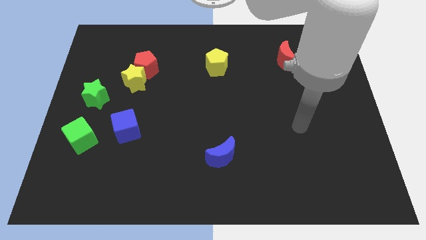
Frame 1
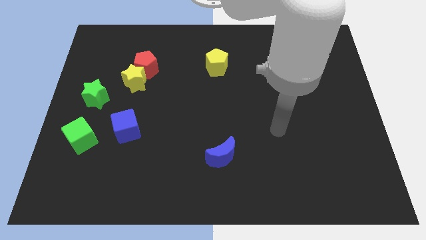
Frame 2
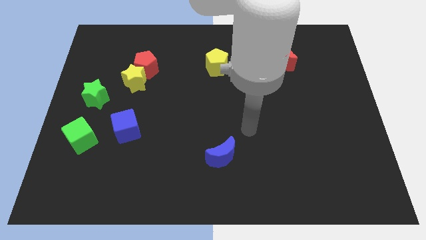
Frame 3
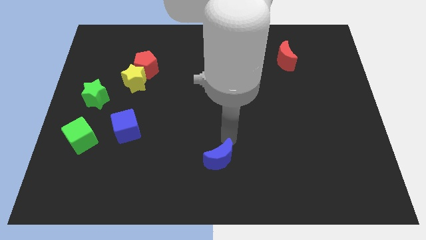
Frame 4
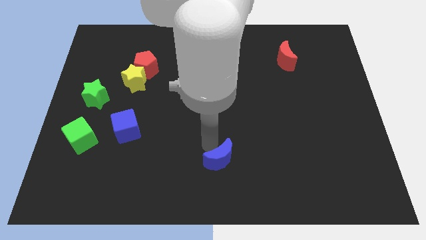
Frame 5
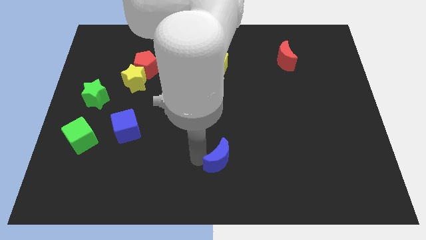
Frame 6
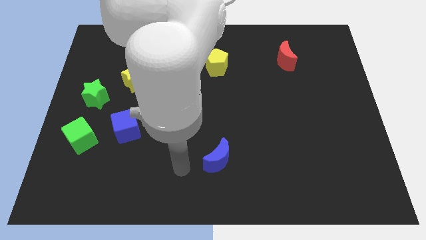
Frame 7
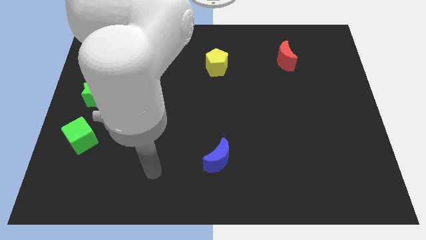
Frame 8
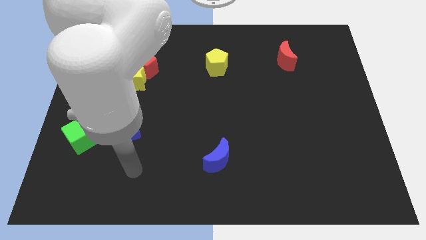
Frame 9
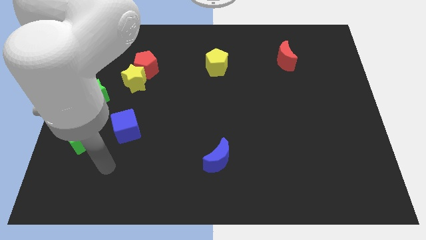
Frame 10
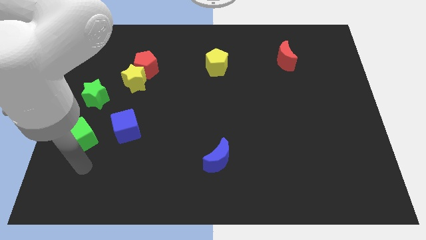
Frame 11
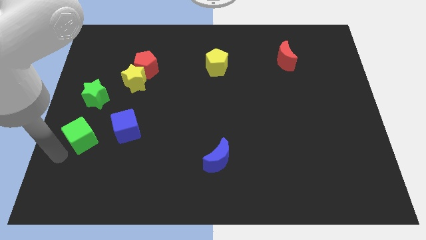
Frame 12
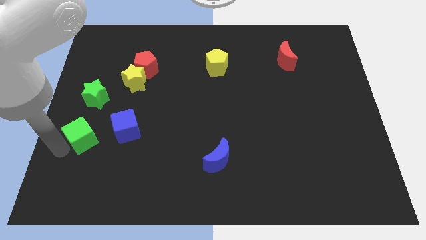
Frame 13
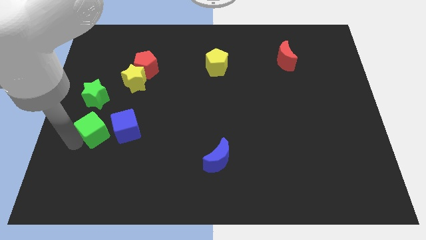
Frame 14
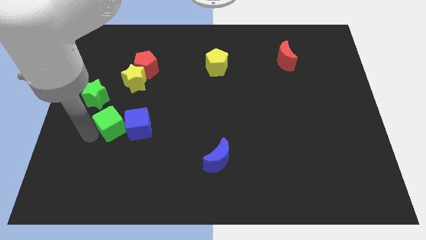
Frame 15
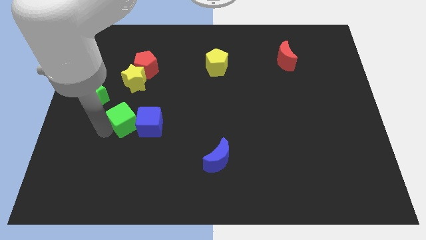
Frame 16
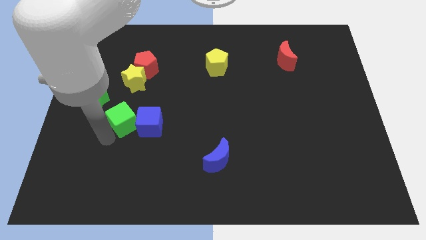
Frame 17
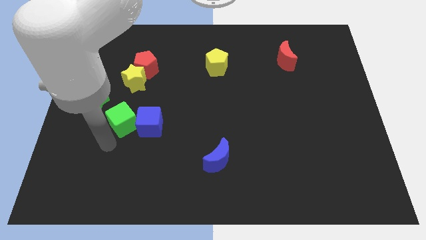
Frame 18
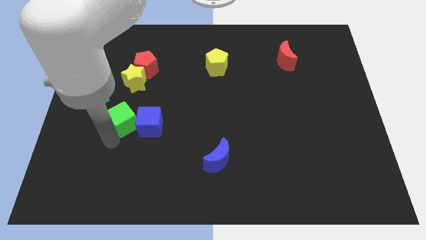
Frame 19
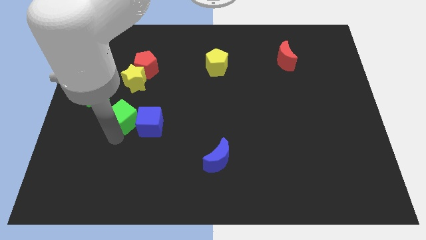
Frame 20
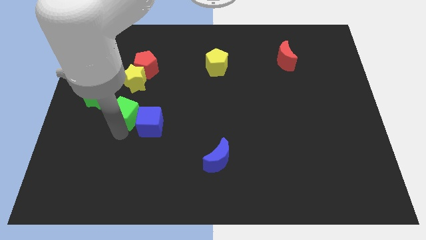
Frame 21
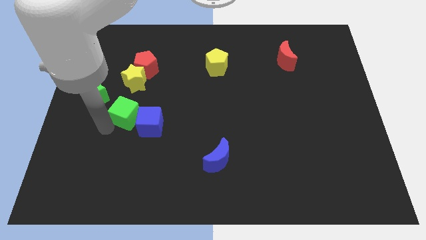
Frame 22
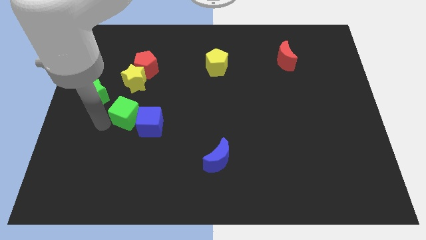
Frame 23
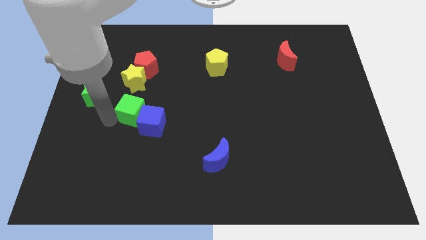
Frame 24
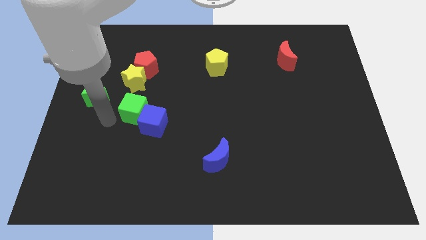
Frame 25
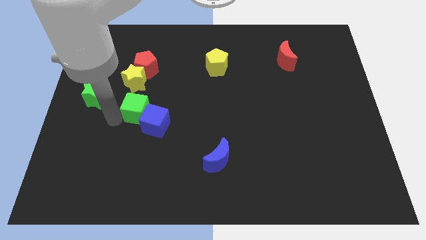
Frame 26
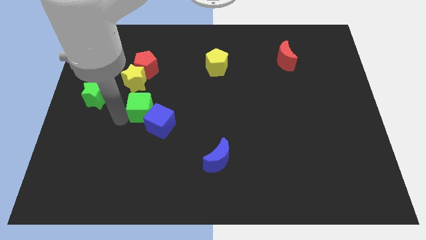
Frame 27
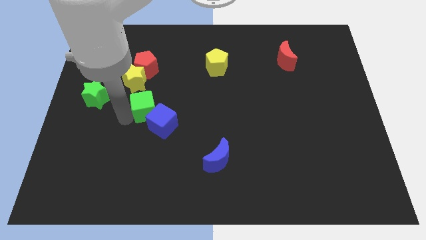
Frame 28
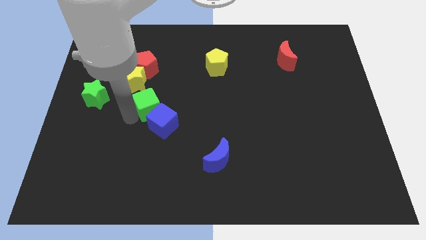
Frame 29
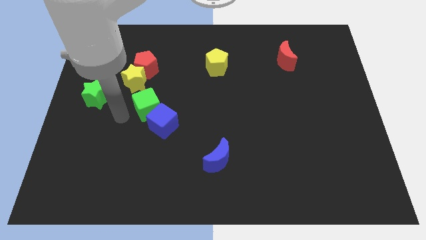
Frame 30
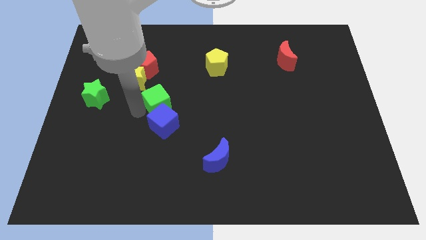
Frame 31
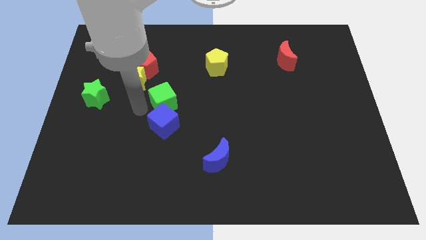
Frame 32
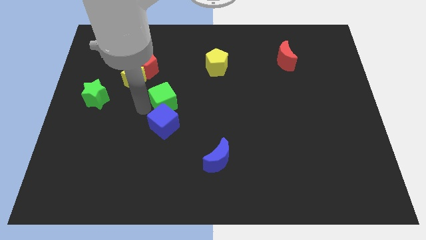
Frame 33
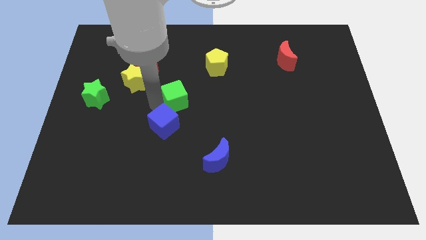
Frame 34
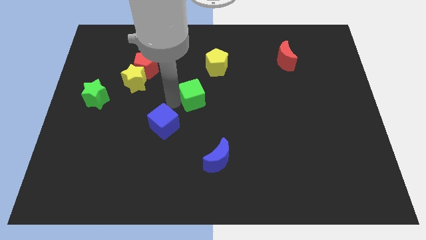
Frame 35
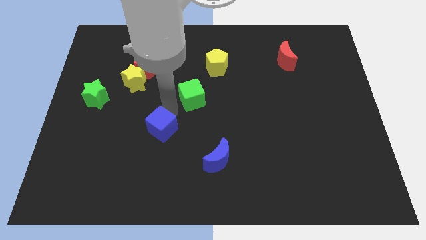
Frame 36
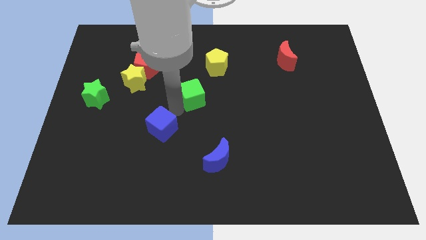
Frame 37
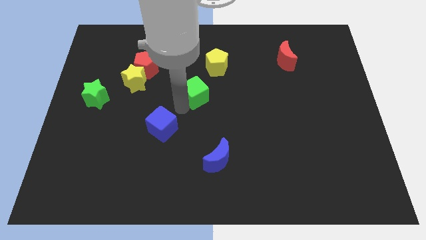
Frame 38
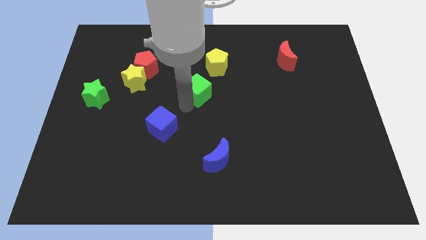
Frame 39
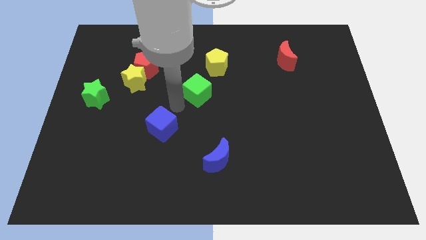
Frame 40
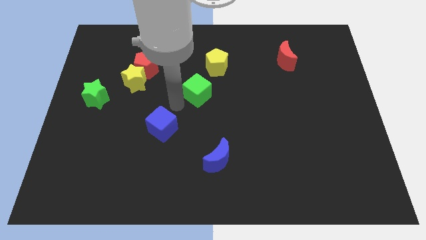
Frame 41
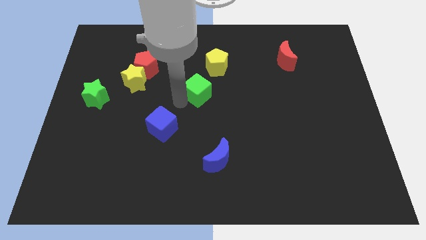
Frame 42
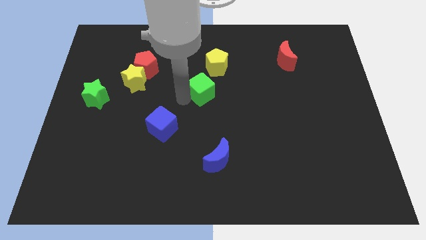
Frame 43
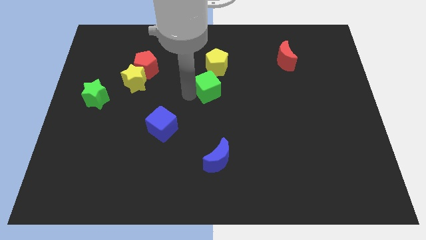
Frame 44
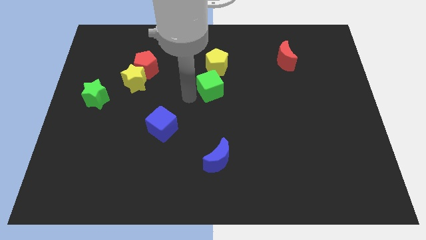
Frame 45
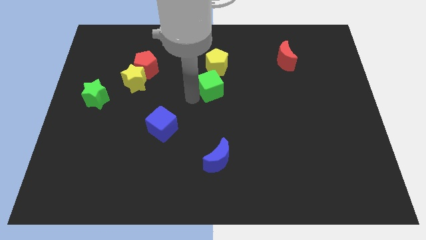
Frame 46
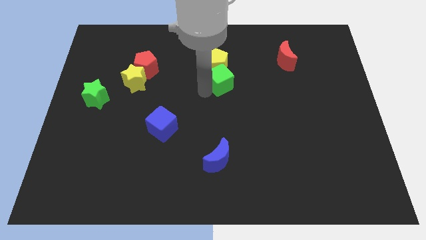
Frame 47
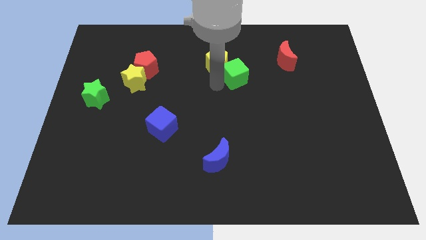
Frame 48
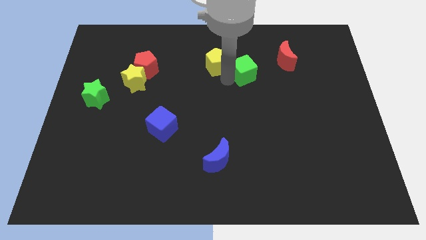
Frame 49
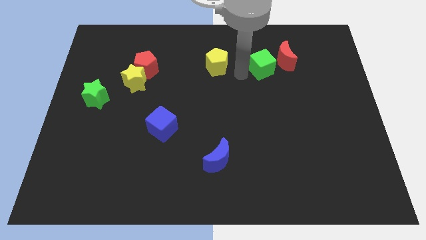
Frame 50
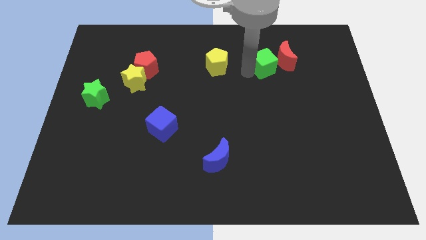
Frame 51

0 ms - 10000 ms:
put the green cube close to the red moon

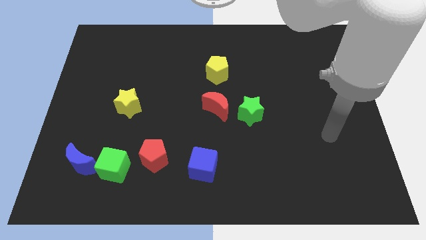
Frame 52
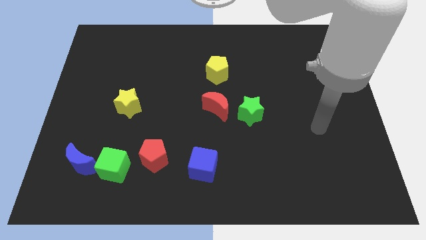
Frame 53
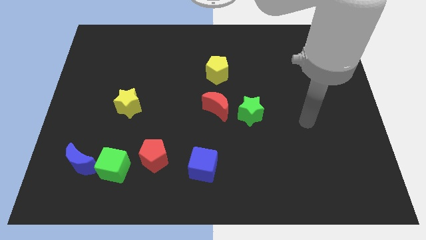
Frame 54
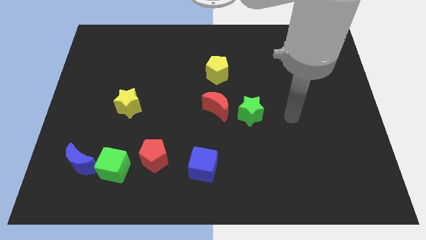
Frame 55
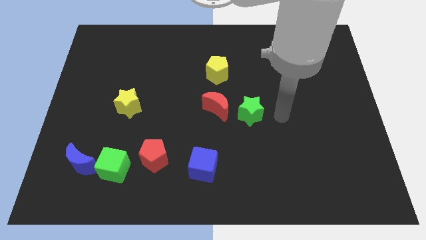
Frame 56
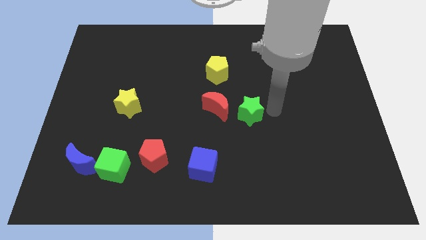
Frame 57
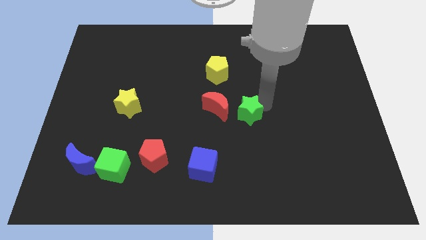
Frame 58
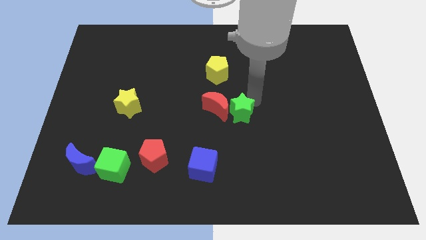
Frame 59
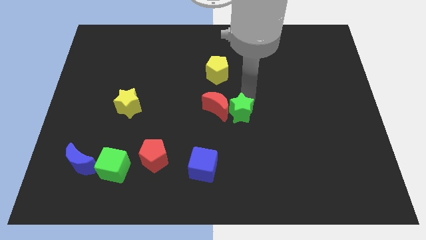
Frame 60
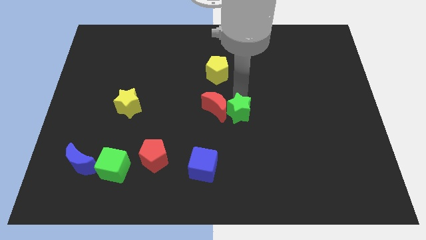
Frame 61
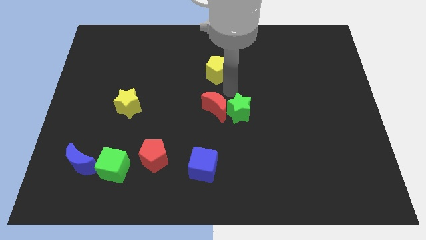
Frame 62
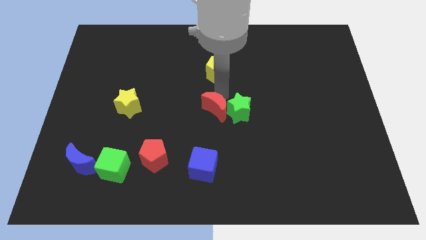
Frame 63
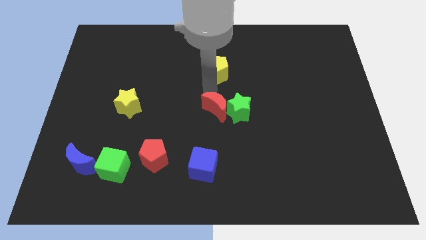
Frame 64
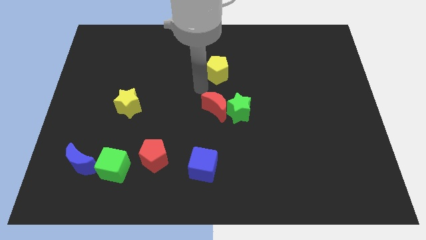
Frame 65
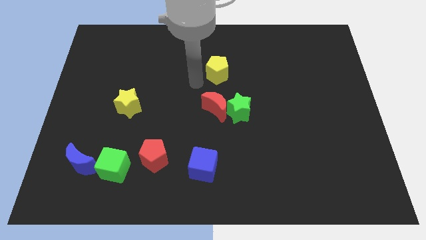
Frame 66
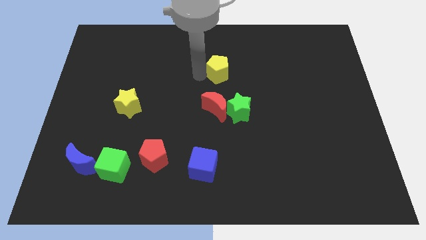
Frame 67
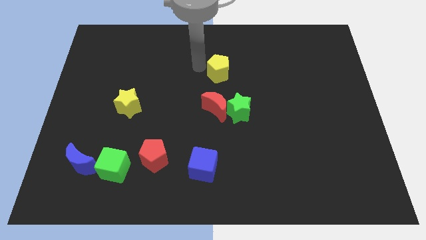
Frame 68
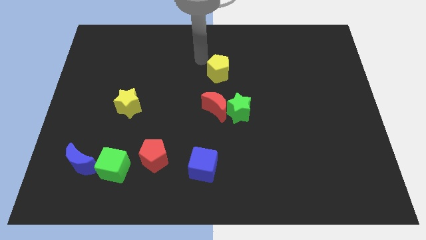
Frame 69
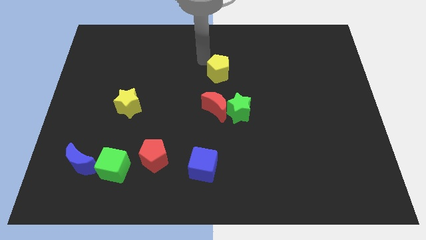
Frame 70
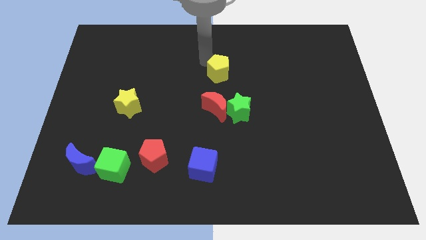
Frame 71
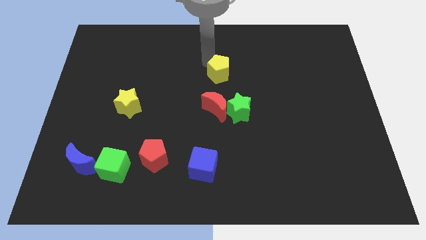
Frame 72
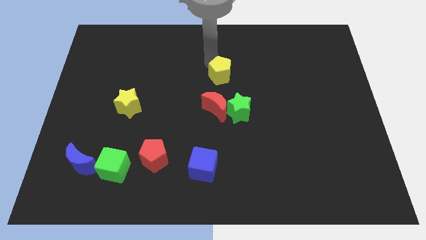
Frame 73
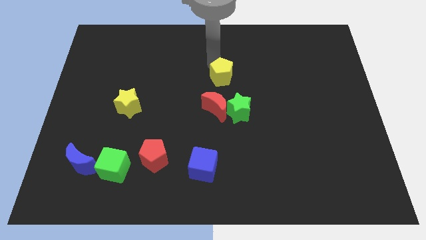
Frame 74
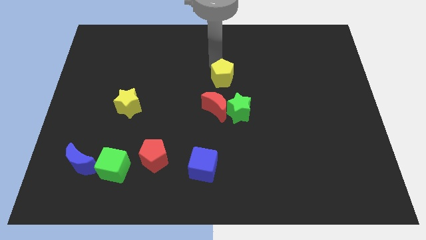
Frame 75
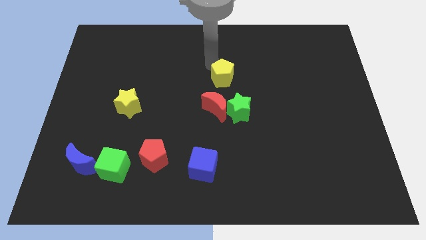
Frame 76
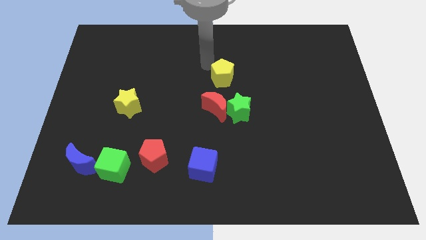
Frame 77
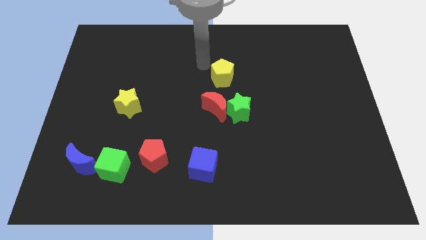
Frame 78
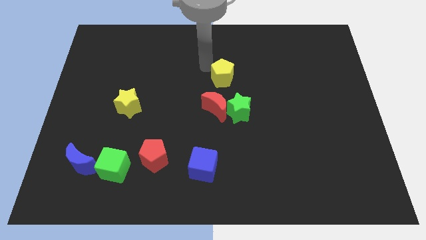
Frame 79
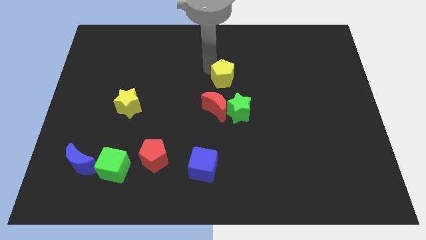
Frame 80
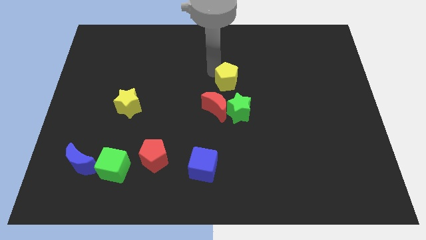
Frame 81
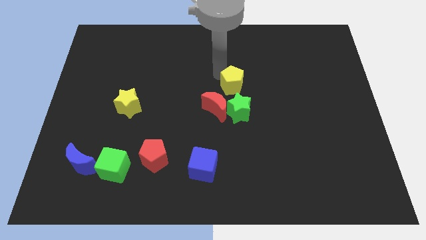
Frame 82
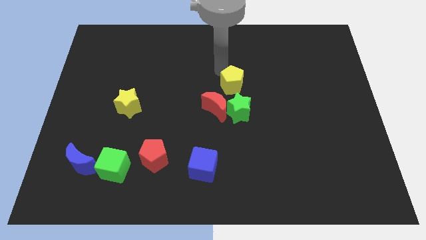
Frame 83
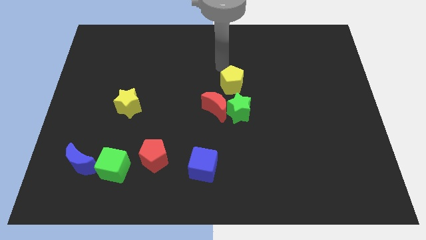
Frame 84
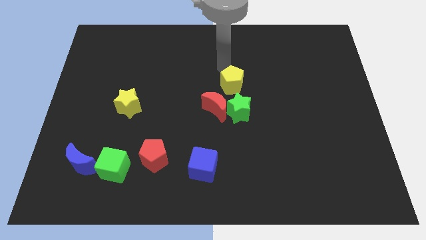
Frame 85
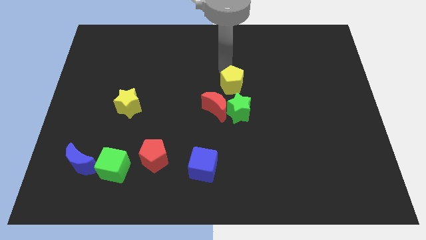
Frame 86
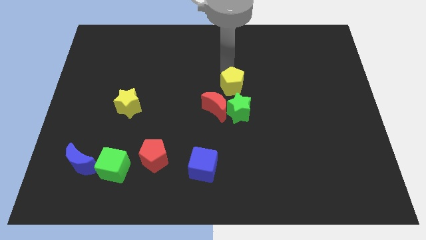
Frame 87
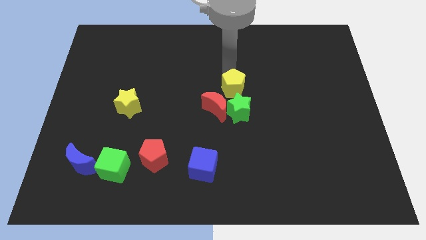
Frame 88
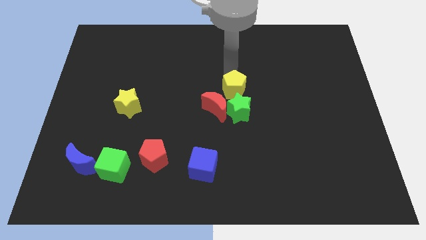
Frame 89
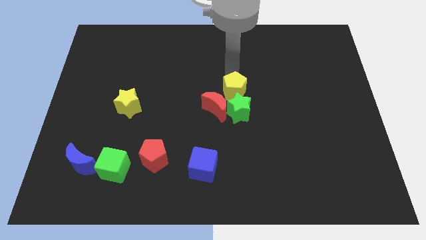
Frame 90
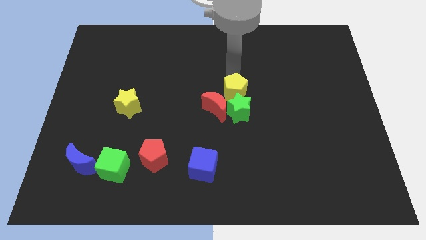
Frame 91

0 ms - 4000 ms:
move the yellow pentagon next to the green star
